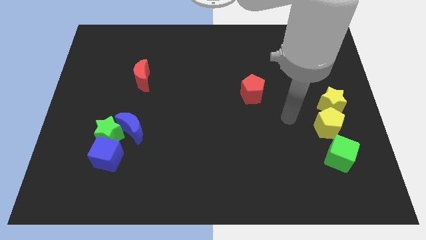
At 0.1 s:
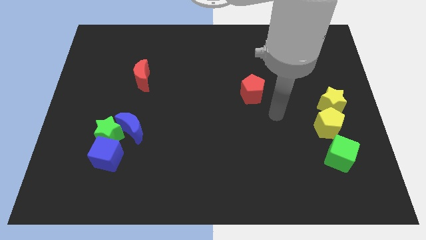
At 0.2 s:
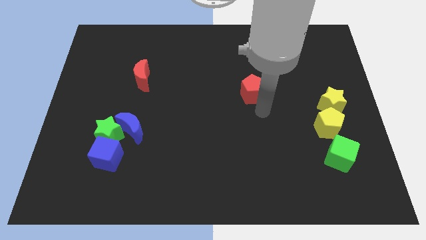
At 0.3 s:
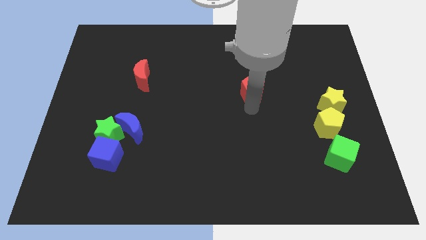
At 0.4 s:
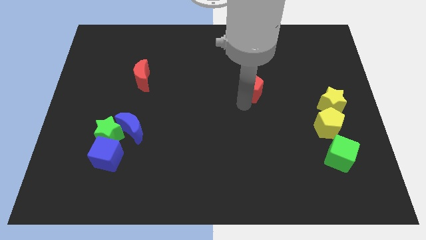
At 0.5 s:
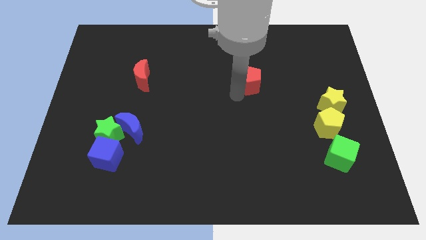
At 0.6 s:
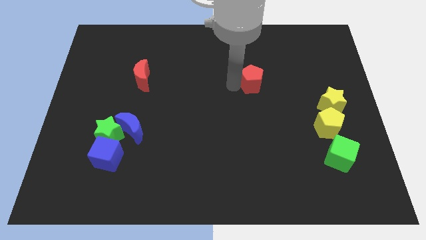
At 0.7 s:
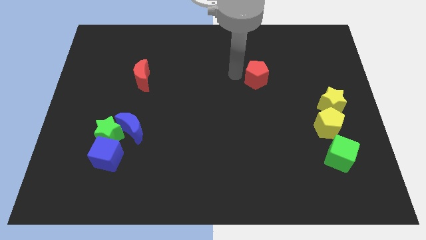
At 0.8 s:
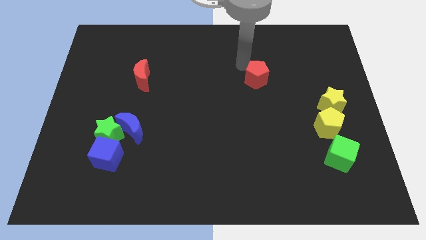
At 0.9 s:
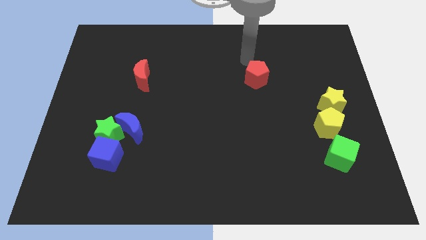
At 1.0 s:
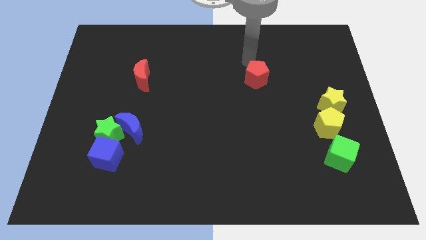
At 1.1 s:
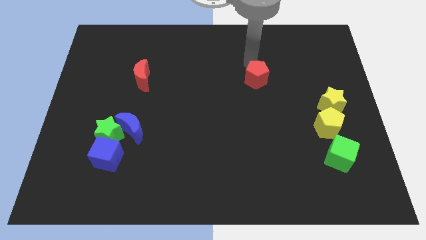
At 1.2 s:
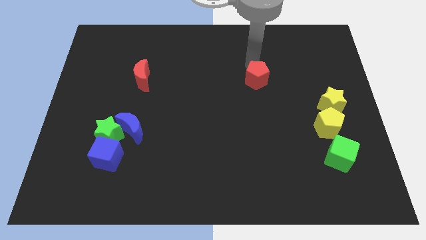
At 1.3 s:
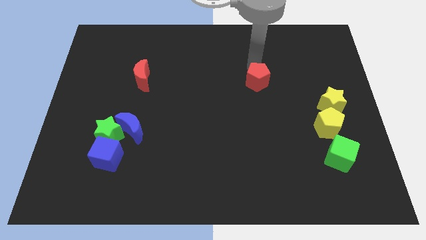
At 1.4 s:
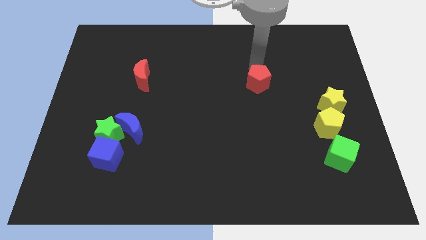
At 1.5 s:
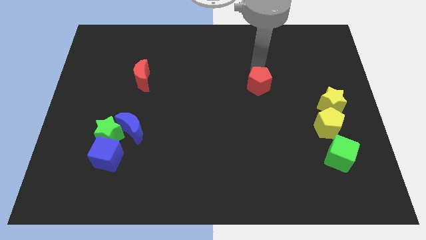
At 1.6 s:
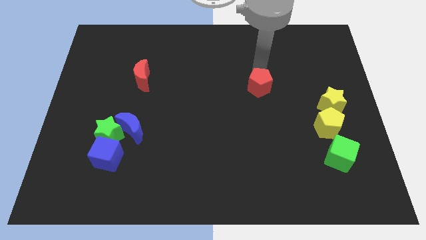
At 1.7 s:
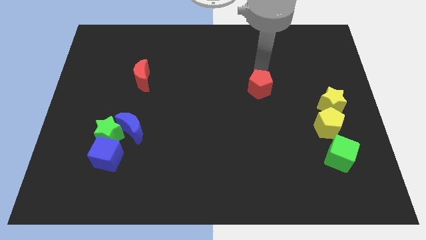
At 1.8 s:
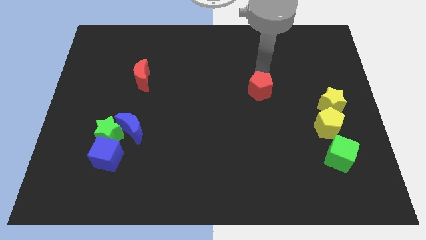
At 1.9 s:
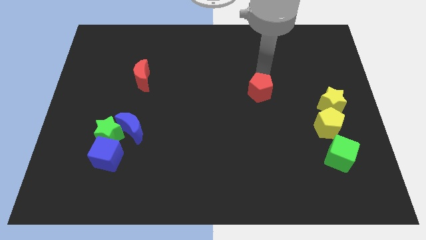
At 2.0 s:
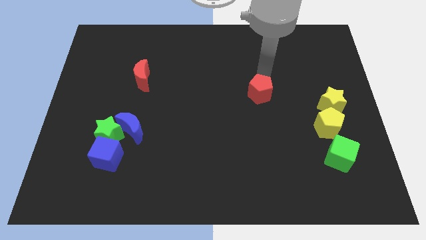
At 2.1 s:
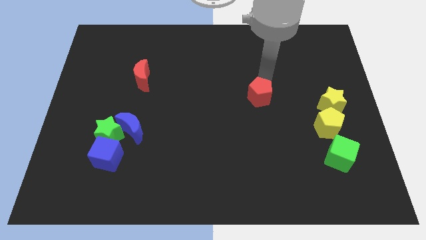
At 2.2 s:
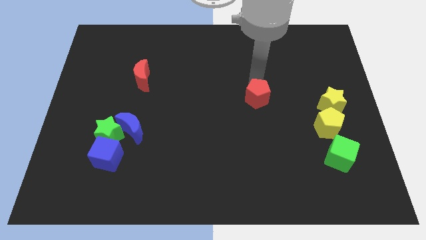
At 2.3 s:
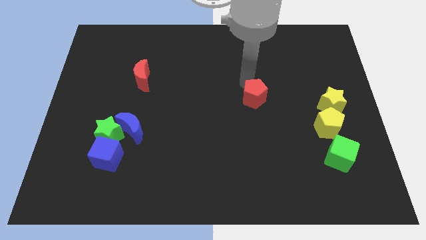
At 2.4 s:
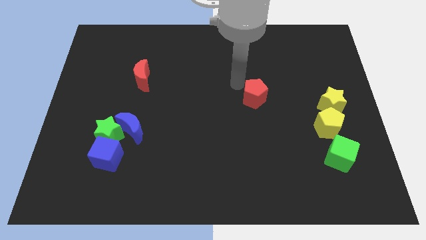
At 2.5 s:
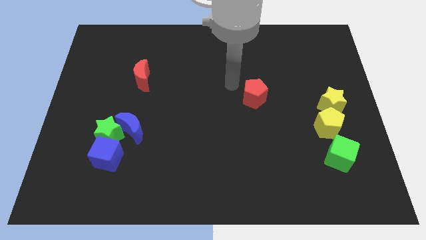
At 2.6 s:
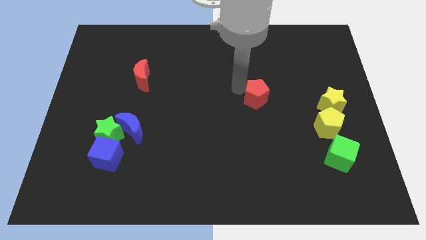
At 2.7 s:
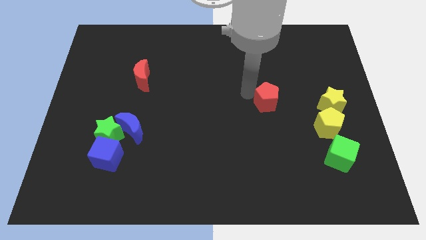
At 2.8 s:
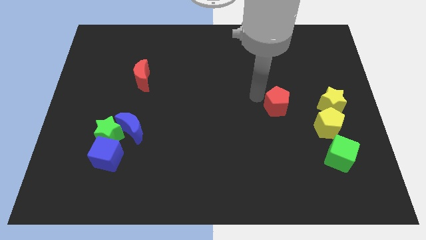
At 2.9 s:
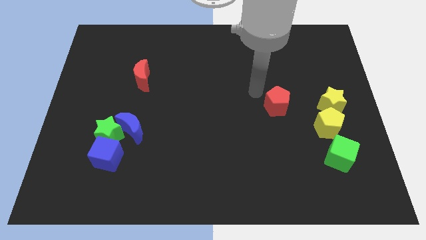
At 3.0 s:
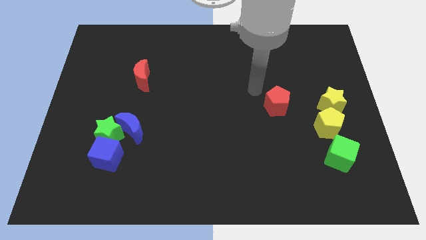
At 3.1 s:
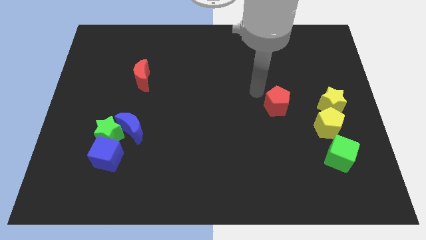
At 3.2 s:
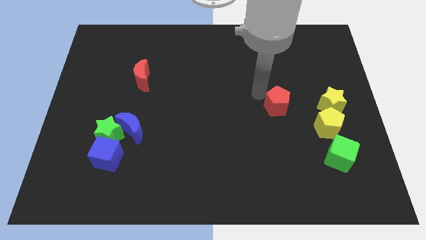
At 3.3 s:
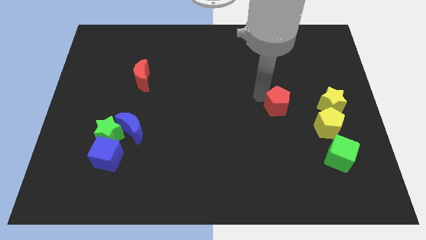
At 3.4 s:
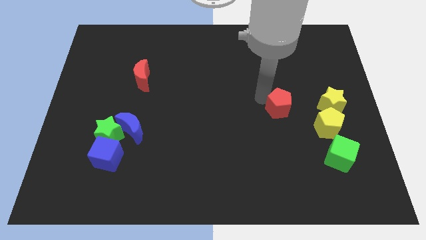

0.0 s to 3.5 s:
push the red pentagon somewhat down and right diagonally

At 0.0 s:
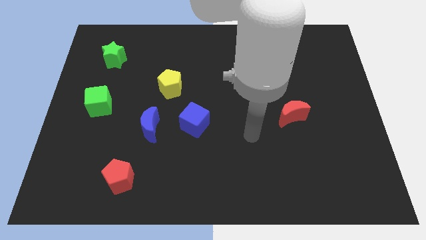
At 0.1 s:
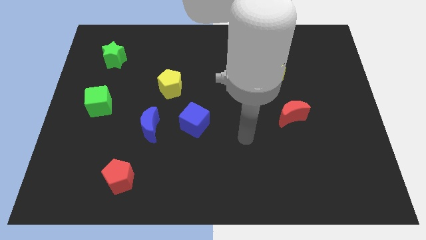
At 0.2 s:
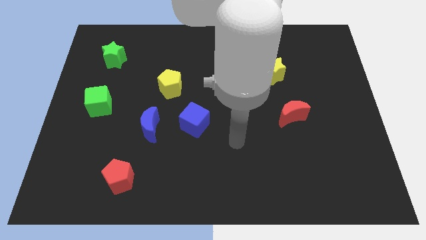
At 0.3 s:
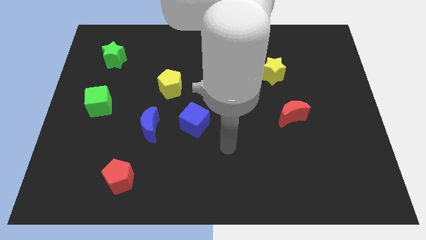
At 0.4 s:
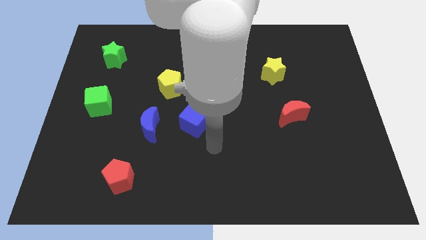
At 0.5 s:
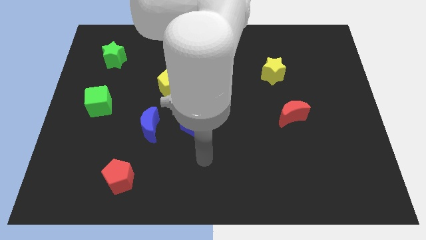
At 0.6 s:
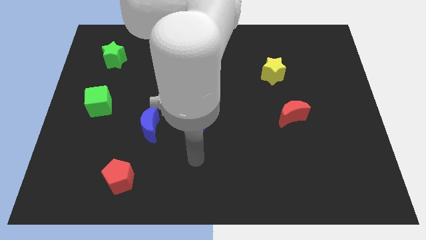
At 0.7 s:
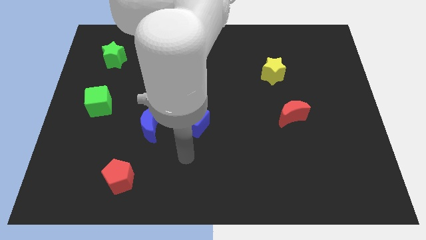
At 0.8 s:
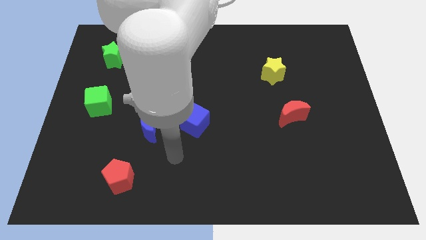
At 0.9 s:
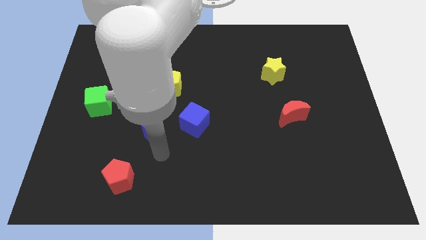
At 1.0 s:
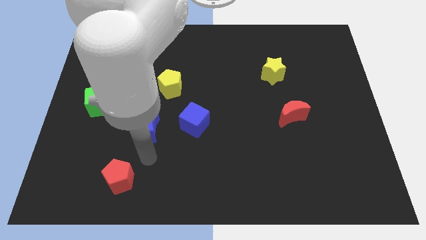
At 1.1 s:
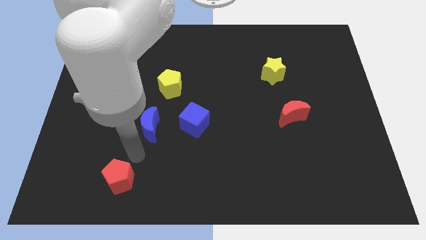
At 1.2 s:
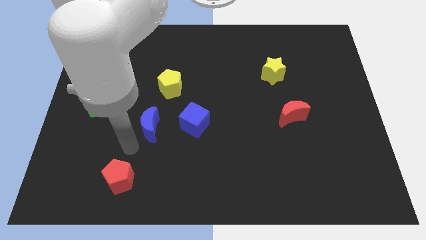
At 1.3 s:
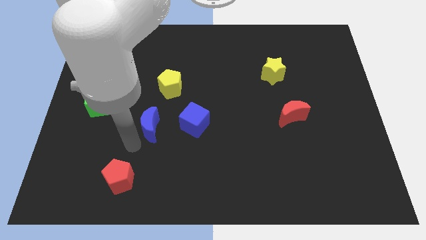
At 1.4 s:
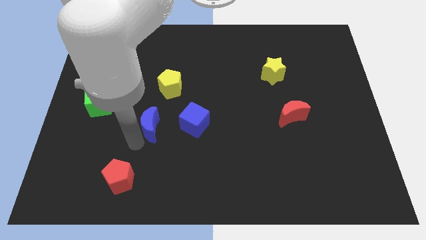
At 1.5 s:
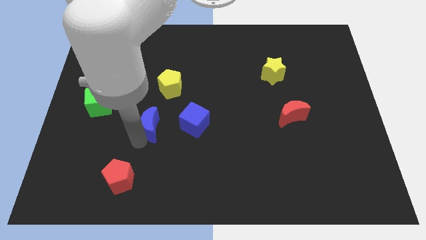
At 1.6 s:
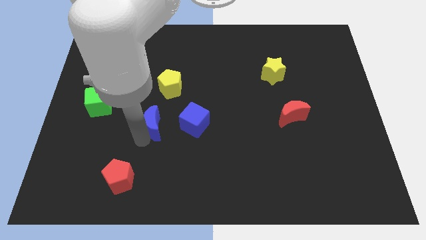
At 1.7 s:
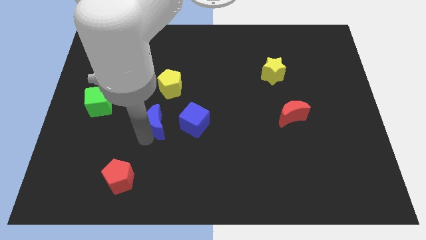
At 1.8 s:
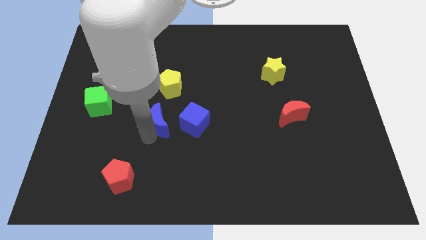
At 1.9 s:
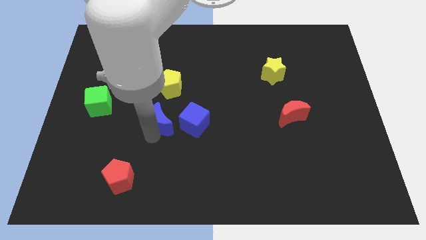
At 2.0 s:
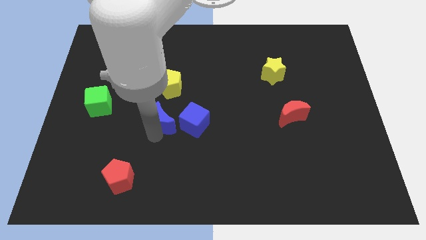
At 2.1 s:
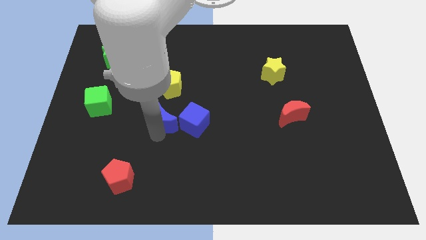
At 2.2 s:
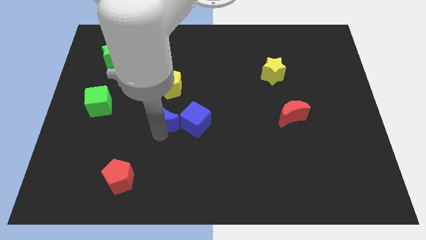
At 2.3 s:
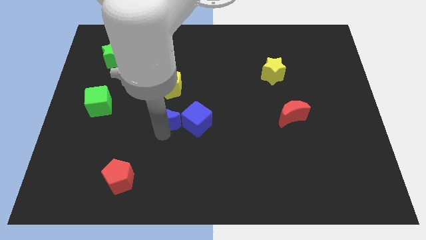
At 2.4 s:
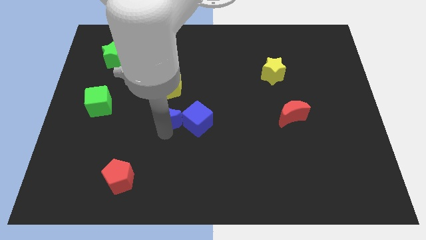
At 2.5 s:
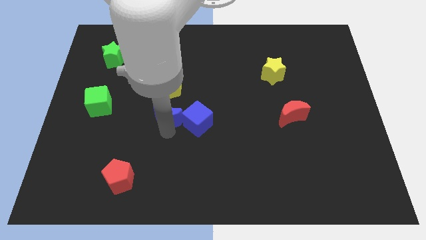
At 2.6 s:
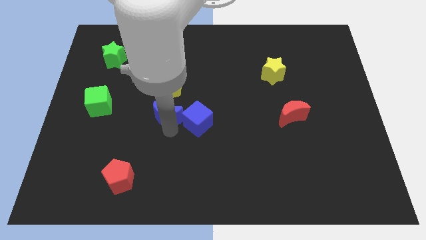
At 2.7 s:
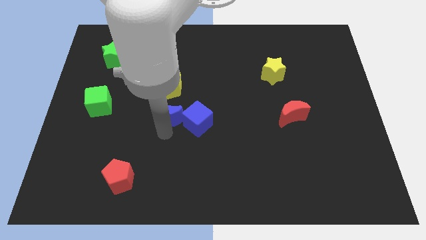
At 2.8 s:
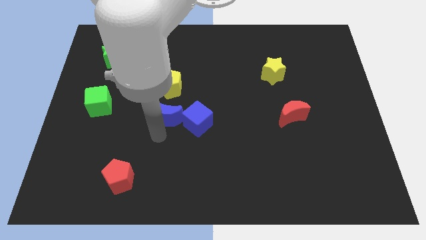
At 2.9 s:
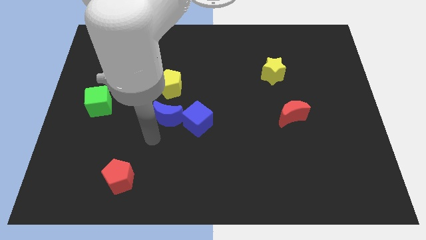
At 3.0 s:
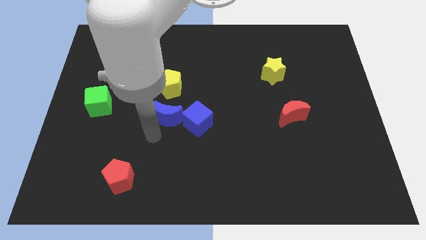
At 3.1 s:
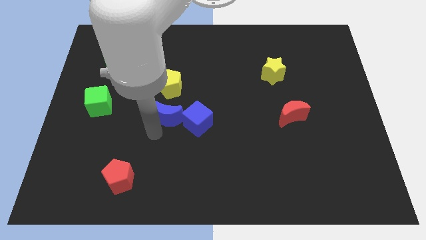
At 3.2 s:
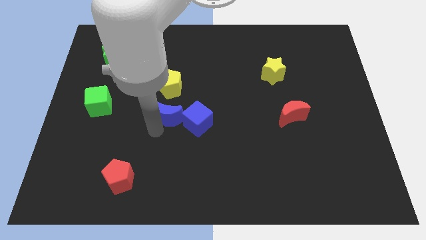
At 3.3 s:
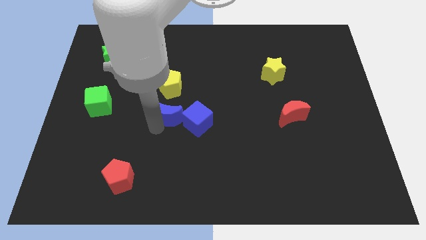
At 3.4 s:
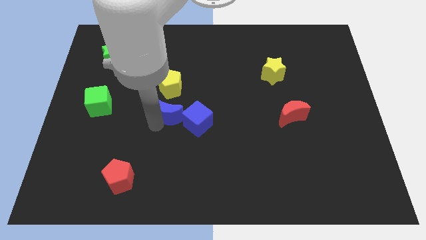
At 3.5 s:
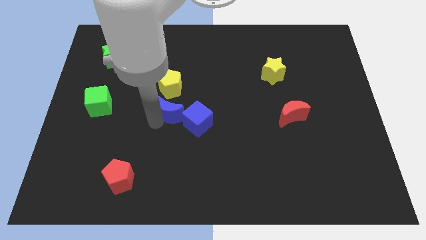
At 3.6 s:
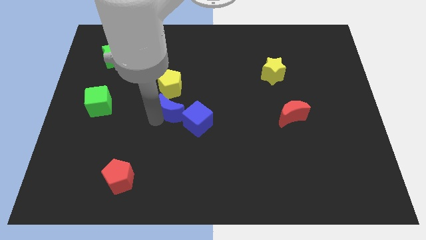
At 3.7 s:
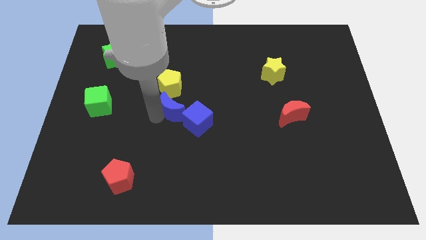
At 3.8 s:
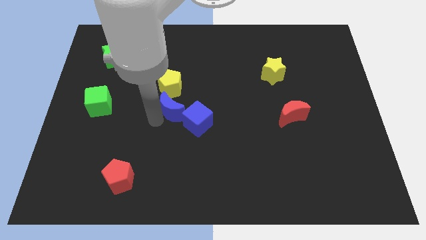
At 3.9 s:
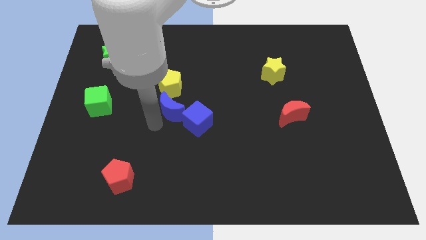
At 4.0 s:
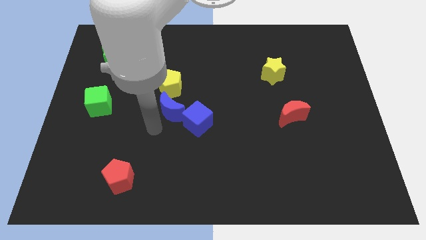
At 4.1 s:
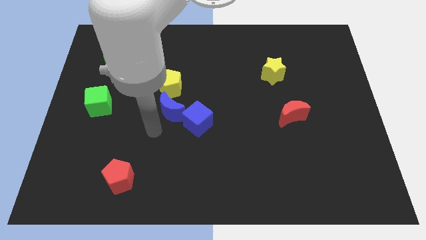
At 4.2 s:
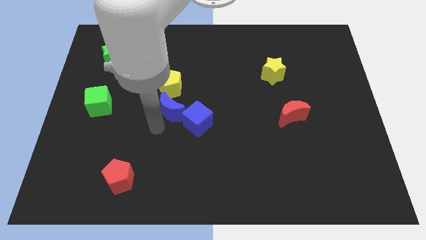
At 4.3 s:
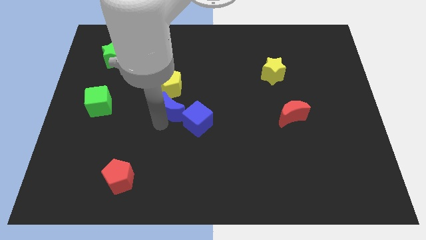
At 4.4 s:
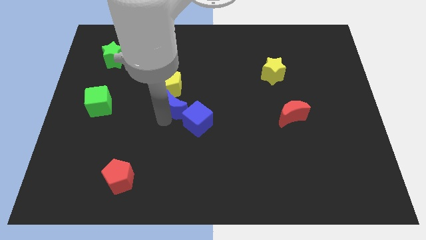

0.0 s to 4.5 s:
push the blue moon a bit upwards and right
